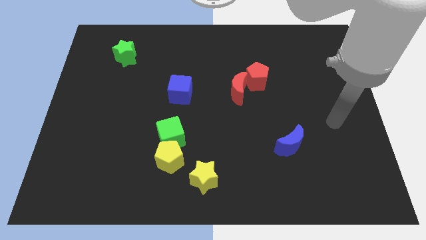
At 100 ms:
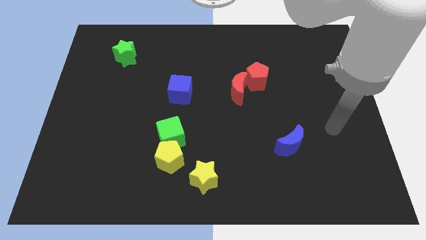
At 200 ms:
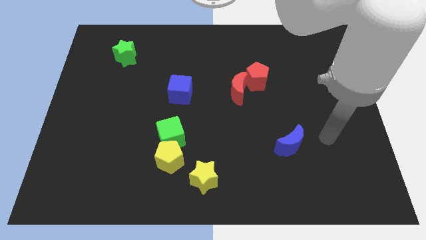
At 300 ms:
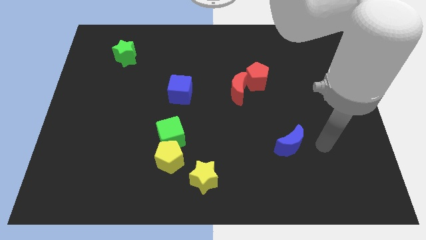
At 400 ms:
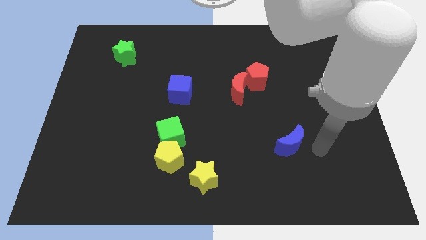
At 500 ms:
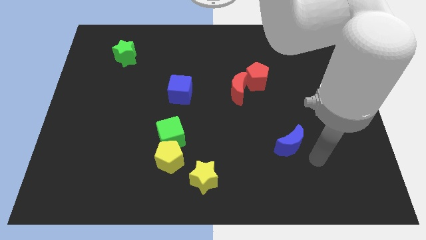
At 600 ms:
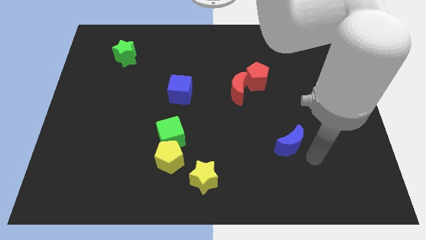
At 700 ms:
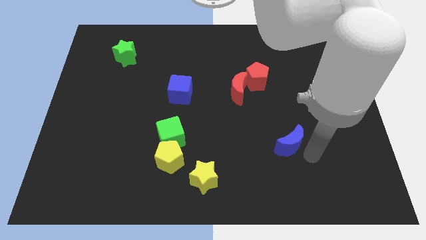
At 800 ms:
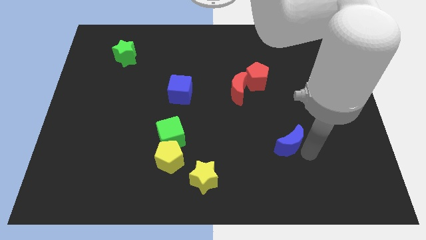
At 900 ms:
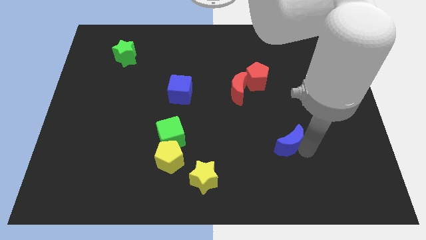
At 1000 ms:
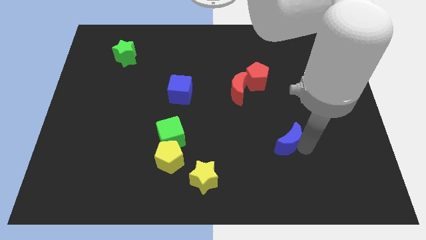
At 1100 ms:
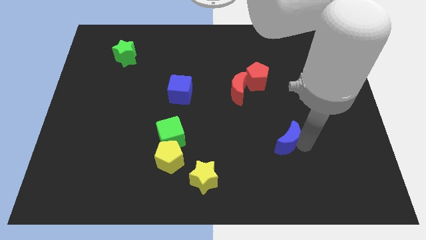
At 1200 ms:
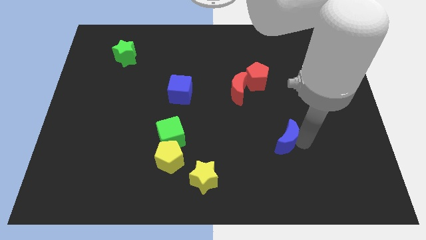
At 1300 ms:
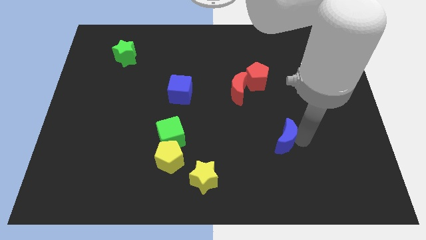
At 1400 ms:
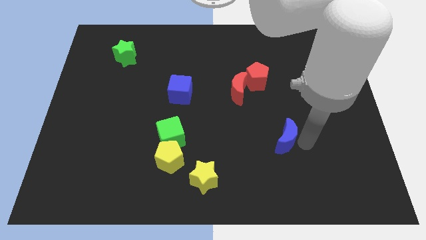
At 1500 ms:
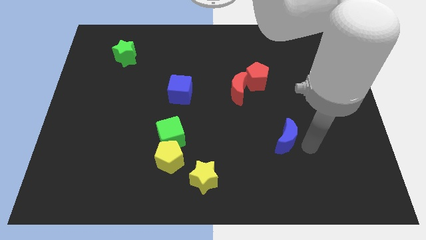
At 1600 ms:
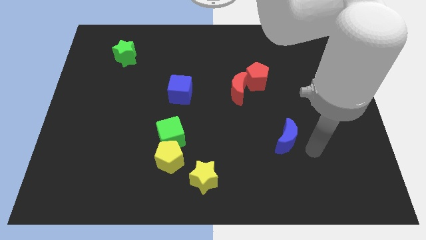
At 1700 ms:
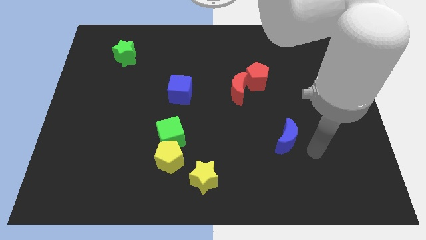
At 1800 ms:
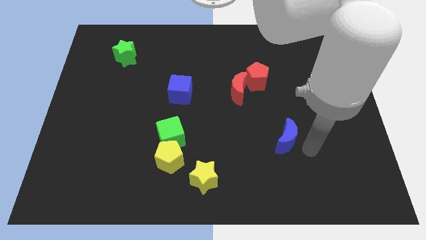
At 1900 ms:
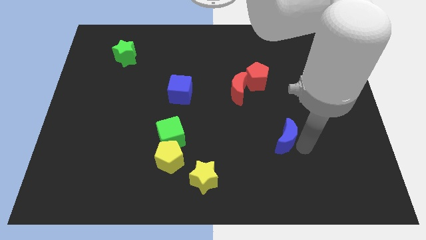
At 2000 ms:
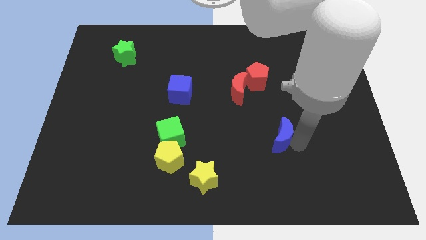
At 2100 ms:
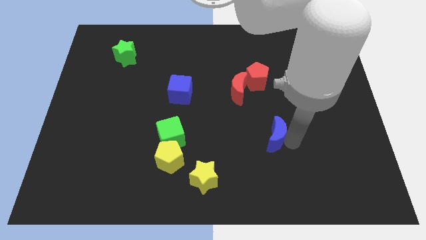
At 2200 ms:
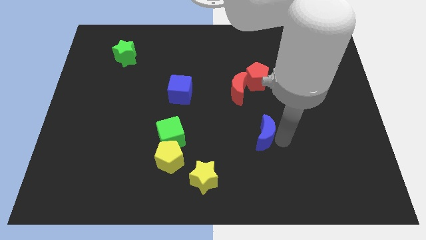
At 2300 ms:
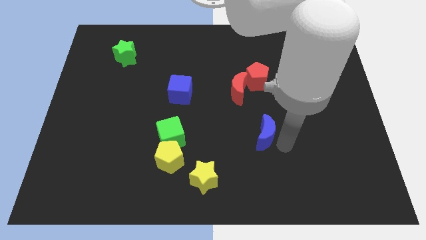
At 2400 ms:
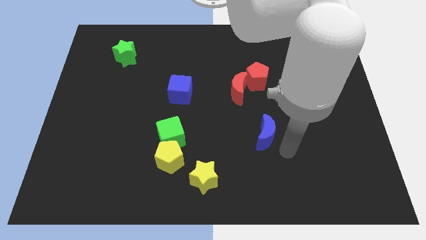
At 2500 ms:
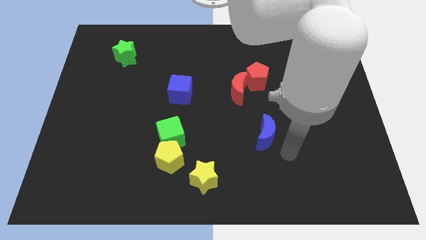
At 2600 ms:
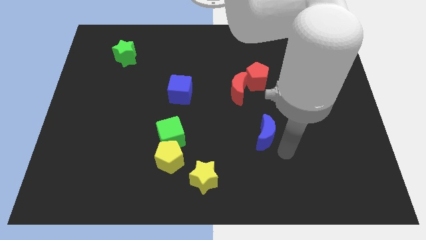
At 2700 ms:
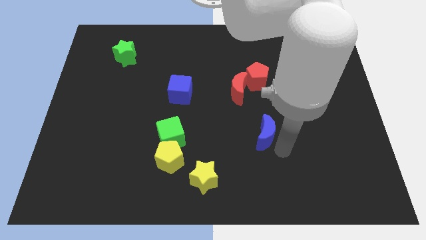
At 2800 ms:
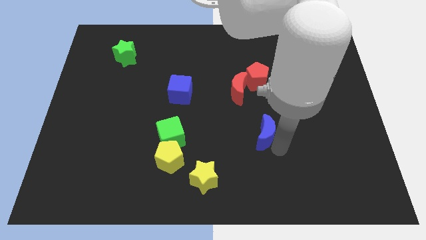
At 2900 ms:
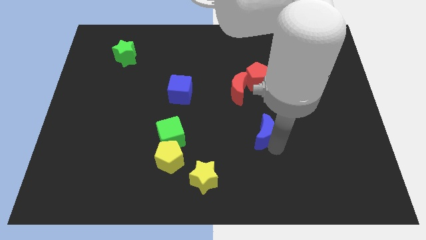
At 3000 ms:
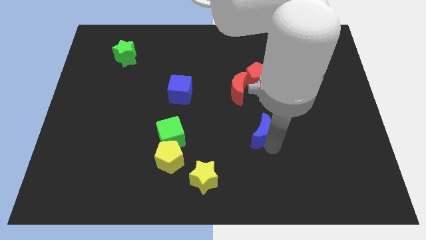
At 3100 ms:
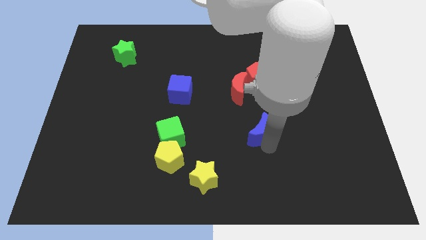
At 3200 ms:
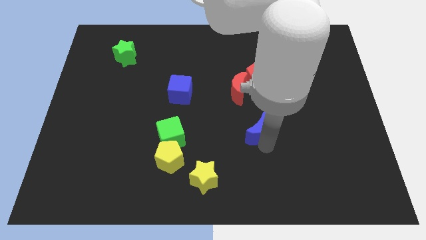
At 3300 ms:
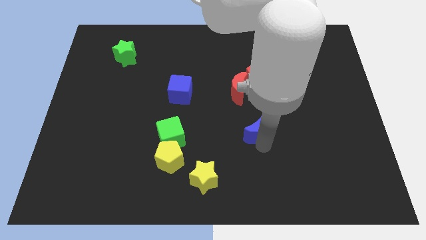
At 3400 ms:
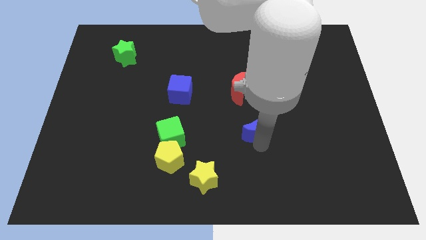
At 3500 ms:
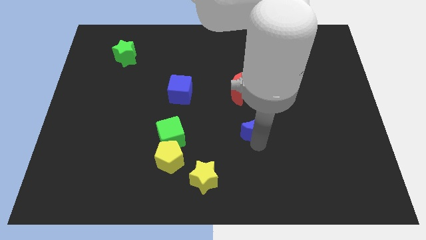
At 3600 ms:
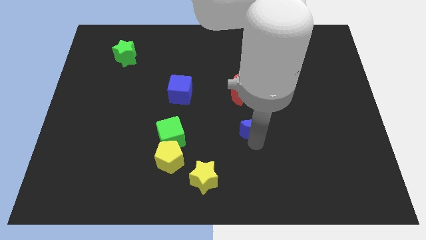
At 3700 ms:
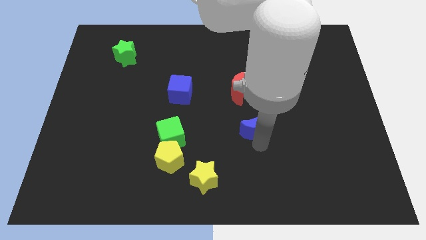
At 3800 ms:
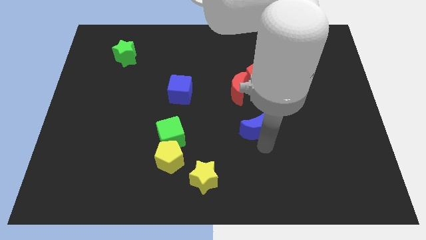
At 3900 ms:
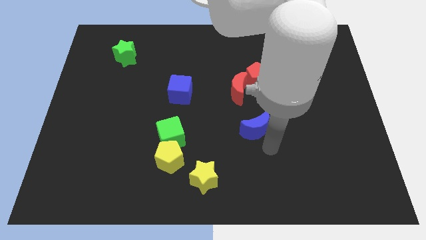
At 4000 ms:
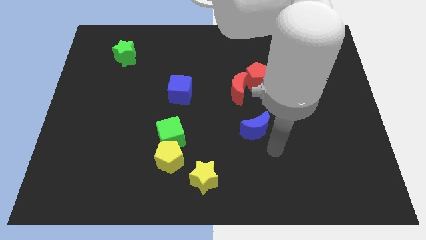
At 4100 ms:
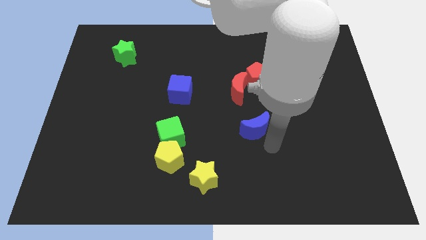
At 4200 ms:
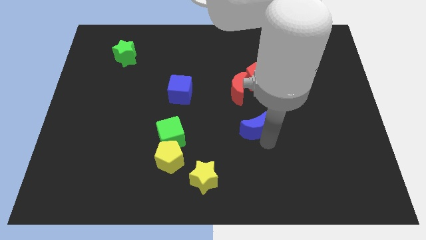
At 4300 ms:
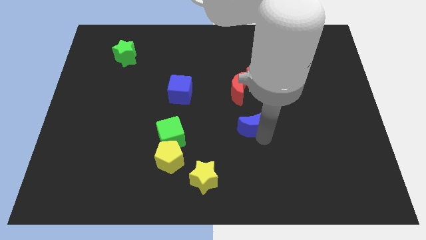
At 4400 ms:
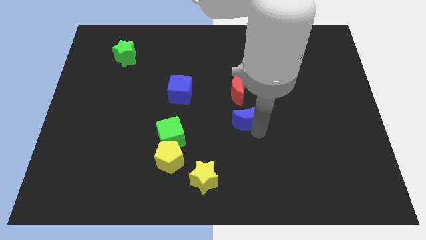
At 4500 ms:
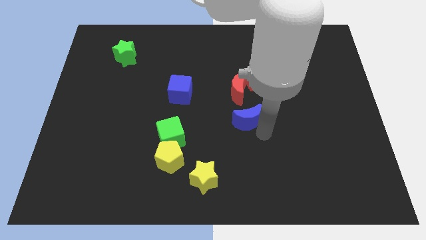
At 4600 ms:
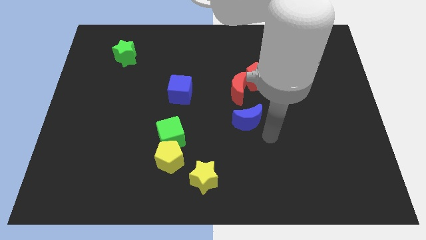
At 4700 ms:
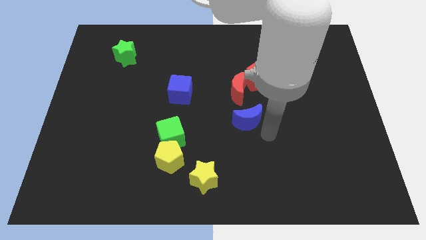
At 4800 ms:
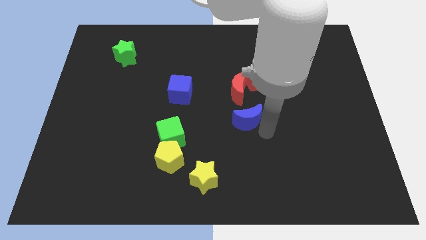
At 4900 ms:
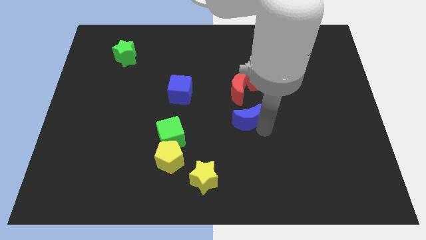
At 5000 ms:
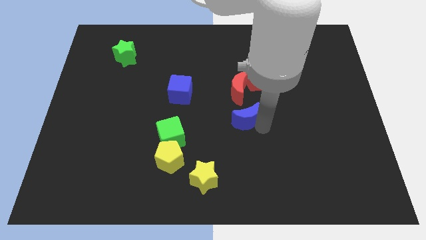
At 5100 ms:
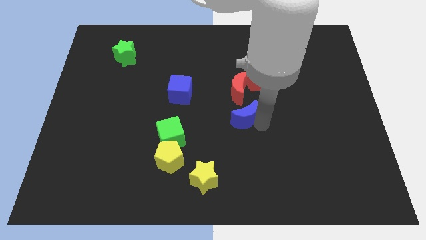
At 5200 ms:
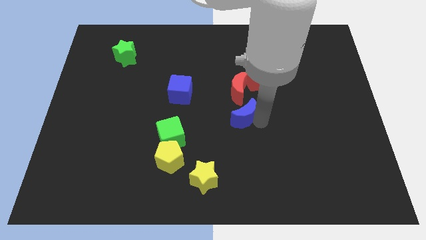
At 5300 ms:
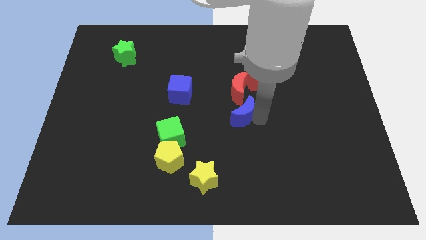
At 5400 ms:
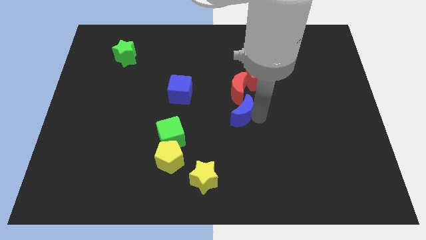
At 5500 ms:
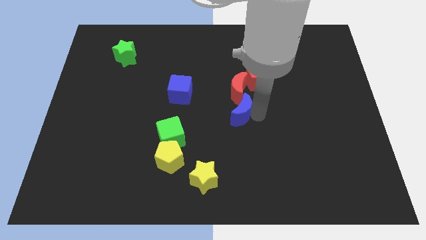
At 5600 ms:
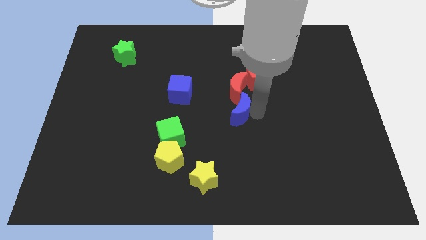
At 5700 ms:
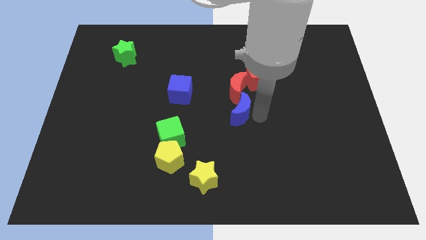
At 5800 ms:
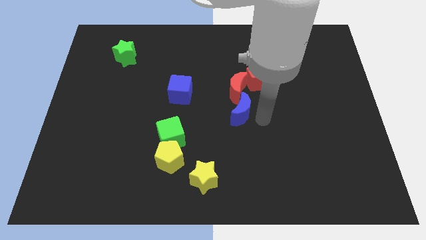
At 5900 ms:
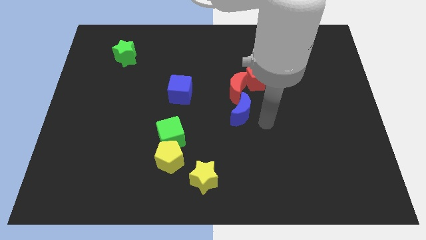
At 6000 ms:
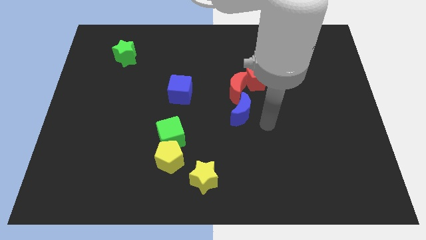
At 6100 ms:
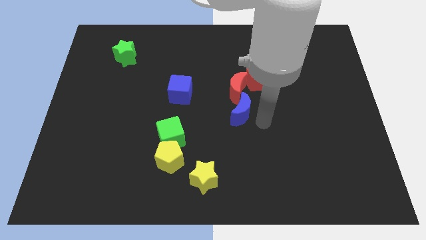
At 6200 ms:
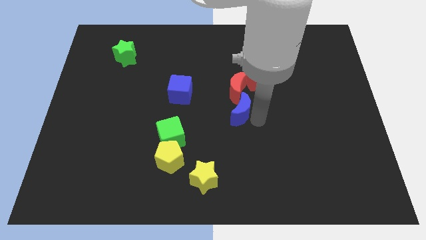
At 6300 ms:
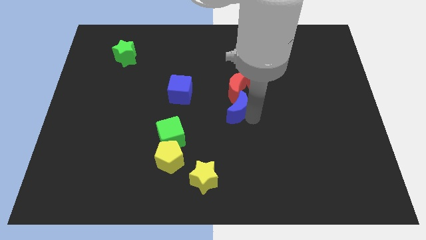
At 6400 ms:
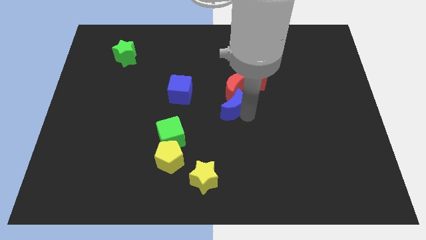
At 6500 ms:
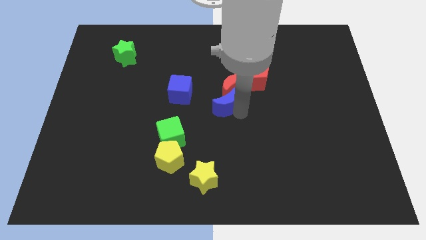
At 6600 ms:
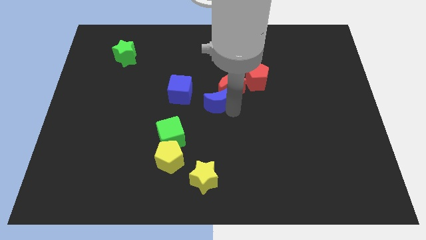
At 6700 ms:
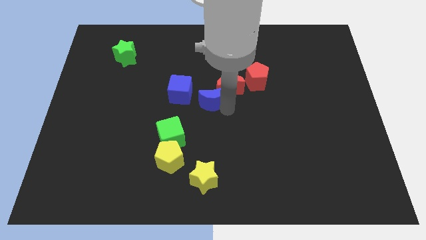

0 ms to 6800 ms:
move the blue moon upwards and left

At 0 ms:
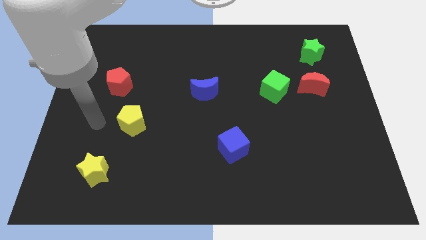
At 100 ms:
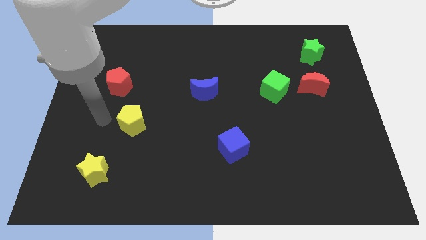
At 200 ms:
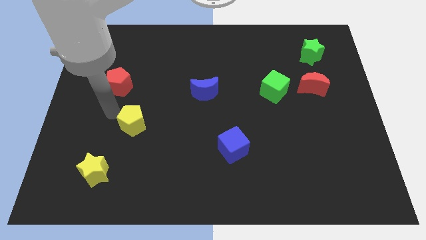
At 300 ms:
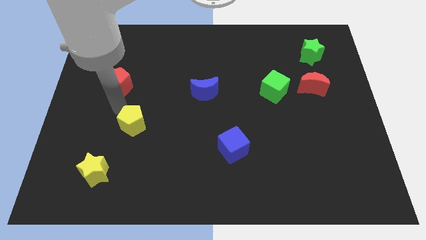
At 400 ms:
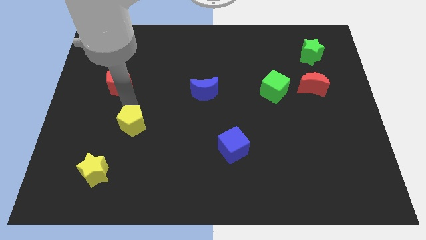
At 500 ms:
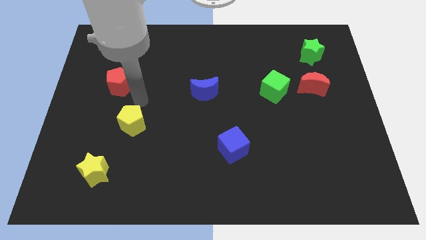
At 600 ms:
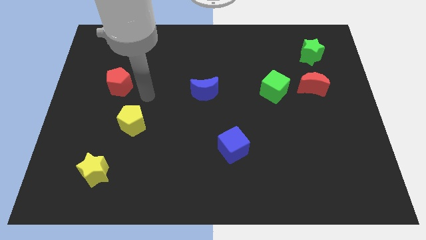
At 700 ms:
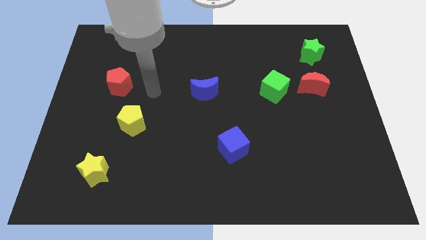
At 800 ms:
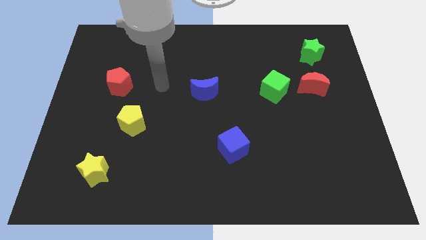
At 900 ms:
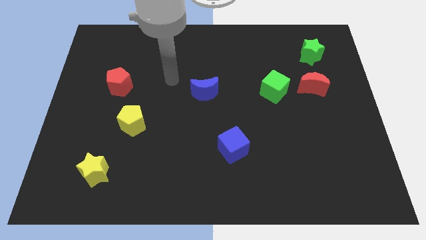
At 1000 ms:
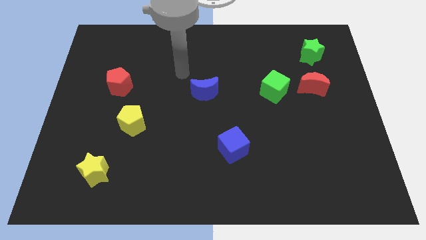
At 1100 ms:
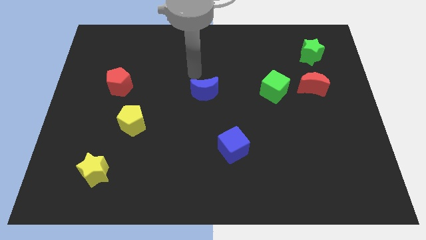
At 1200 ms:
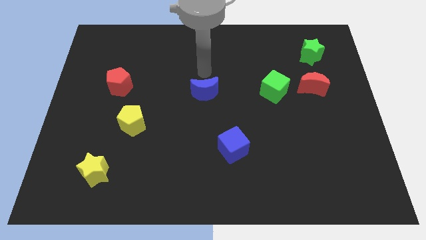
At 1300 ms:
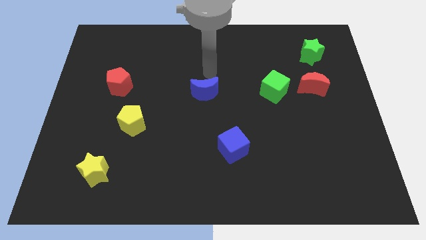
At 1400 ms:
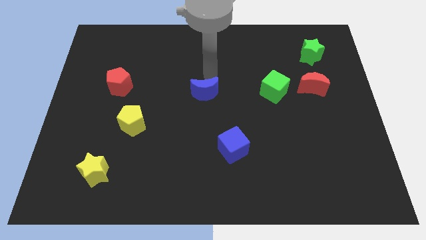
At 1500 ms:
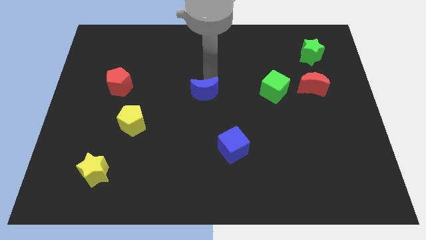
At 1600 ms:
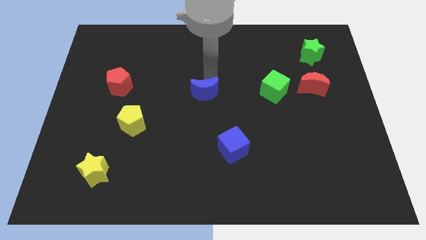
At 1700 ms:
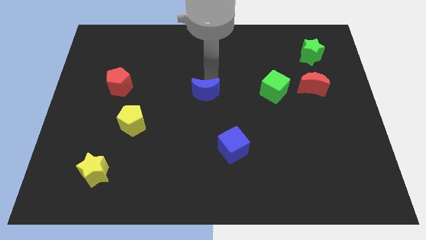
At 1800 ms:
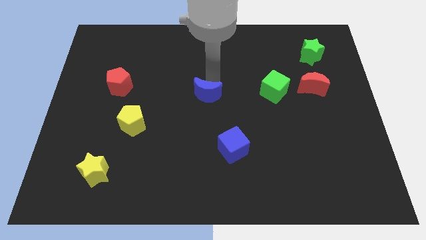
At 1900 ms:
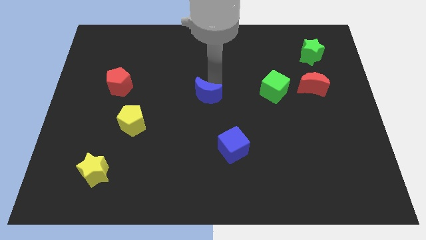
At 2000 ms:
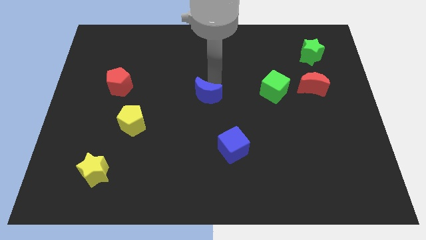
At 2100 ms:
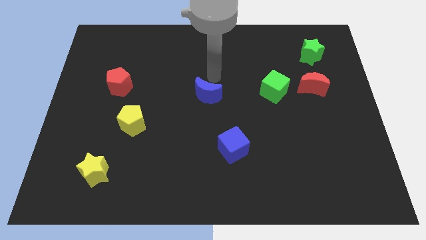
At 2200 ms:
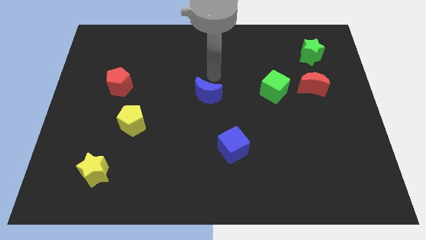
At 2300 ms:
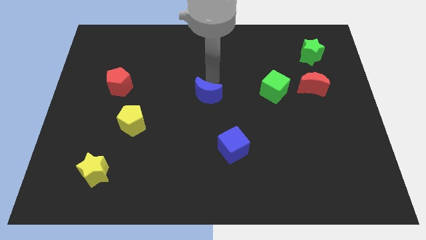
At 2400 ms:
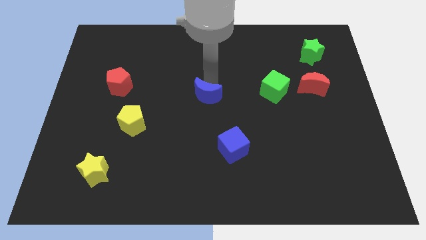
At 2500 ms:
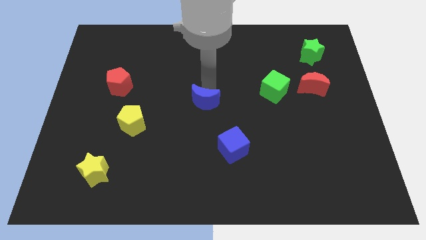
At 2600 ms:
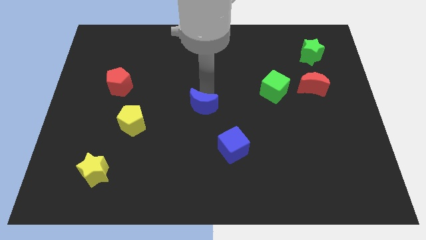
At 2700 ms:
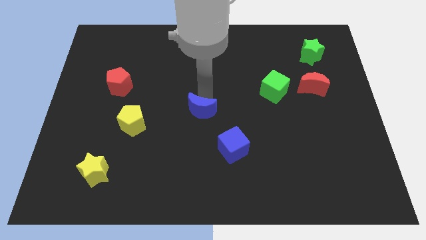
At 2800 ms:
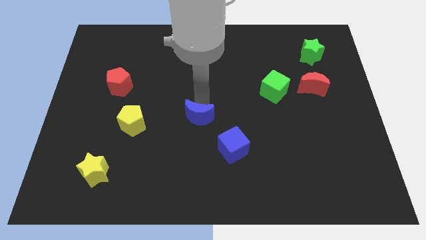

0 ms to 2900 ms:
slightly push the blue moon down
